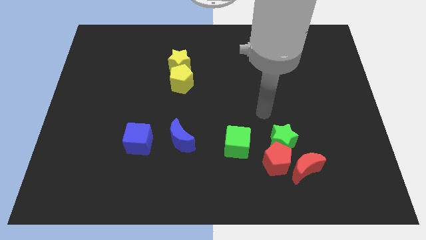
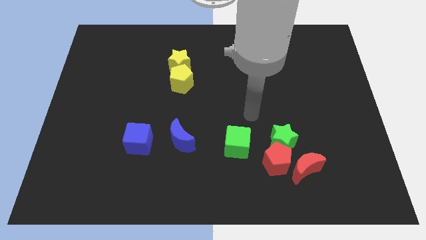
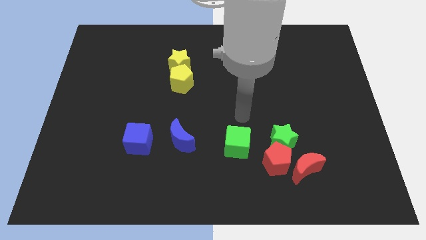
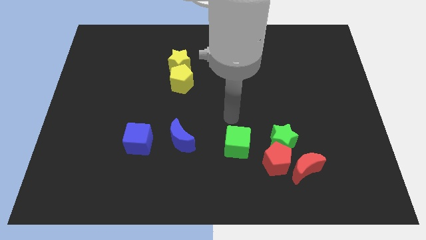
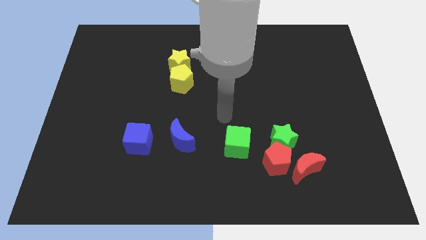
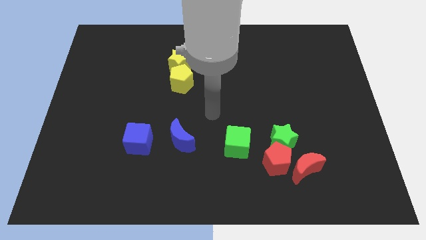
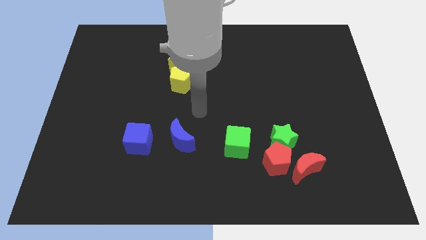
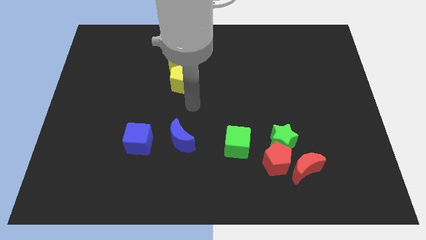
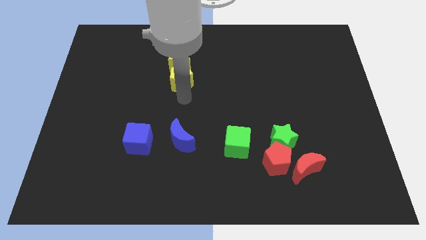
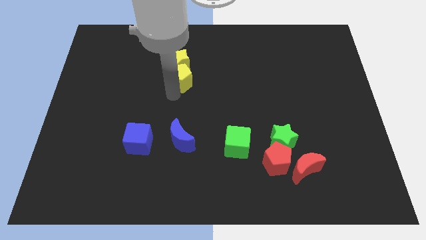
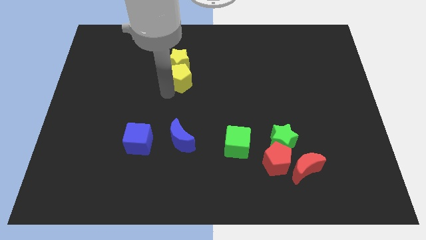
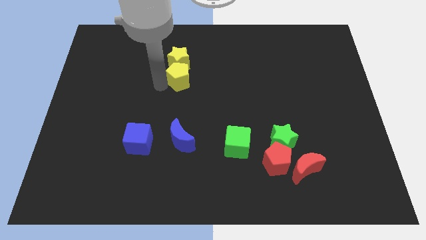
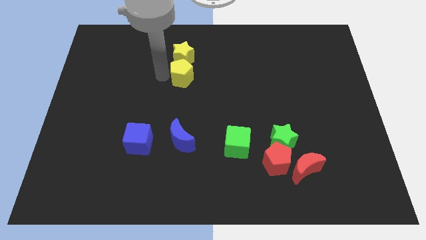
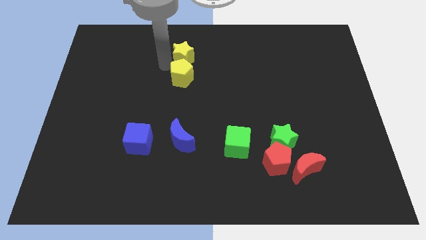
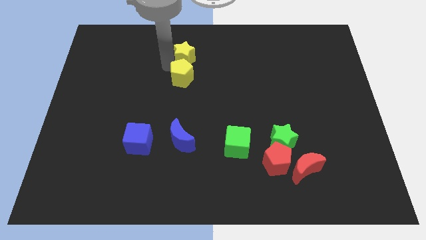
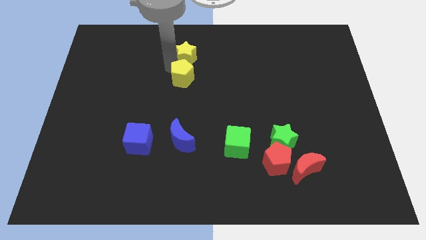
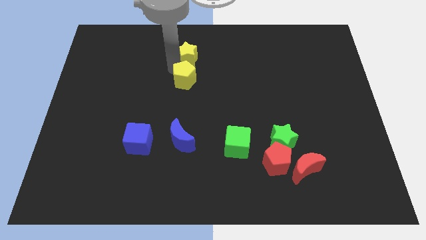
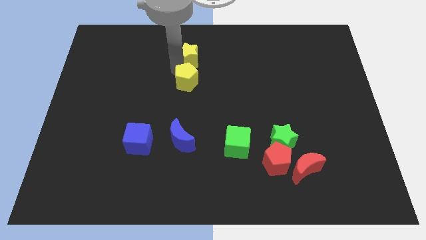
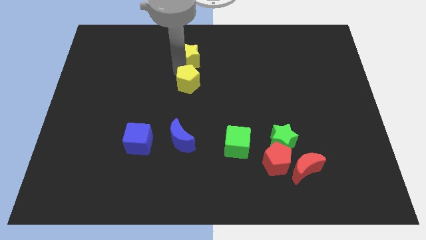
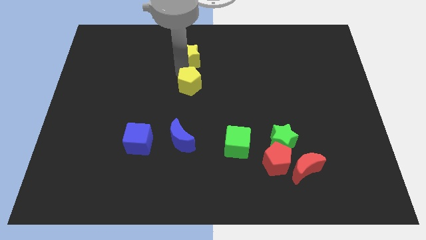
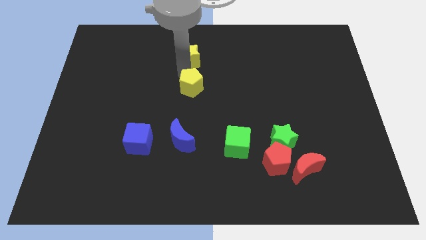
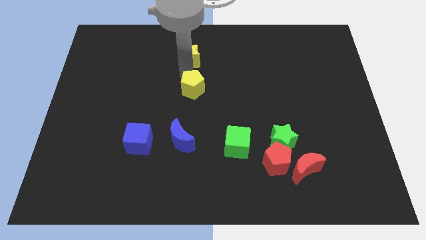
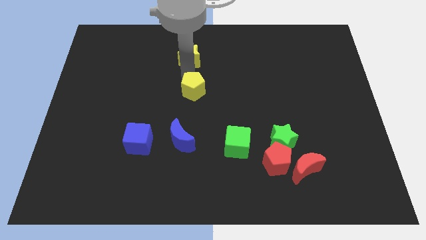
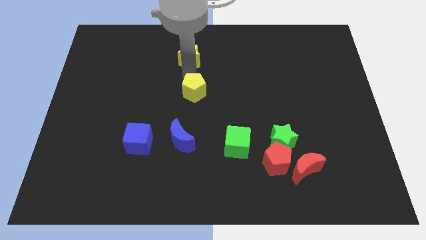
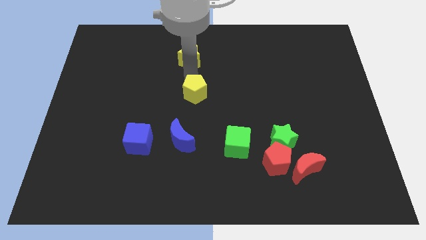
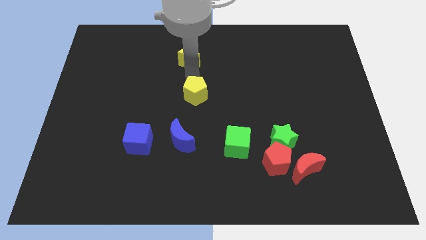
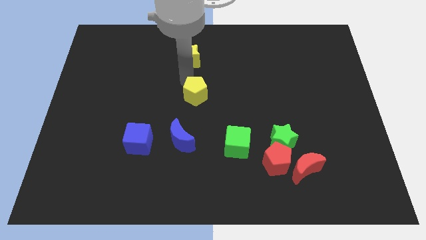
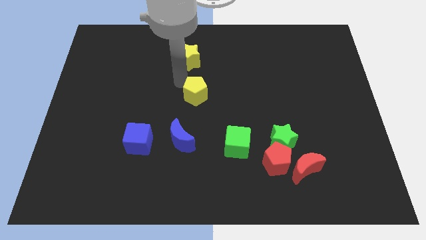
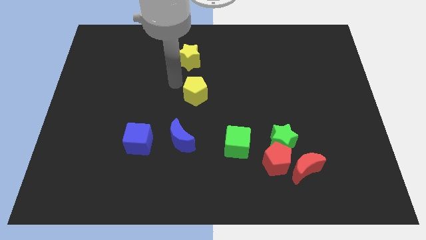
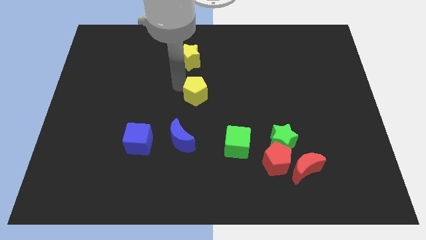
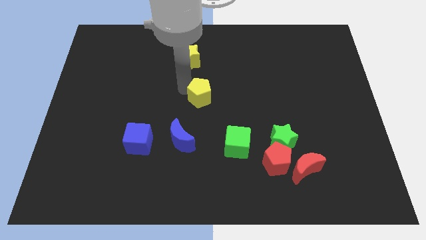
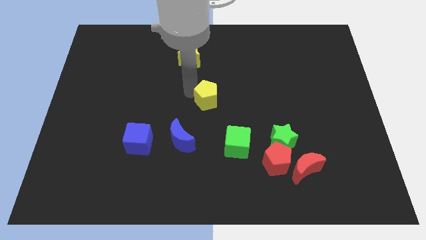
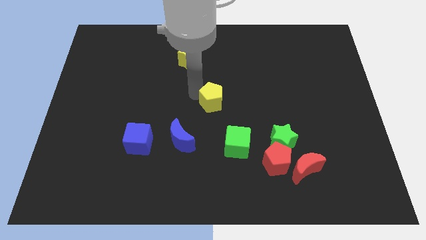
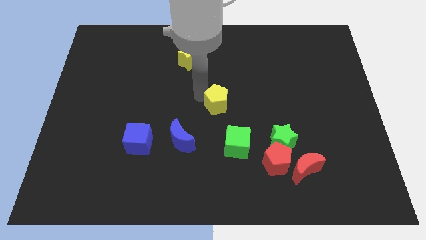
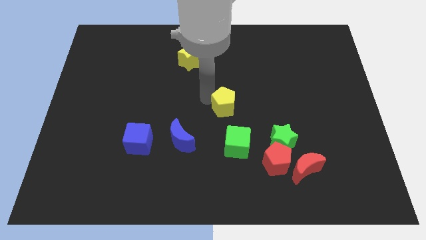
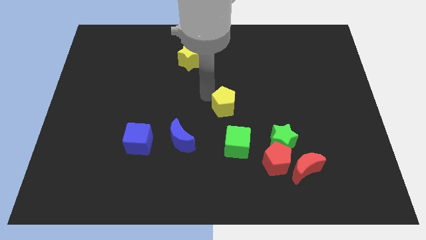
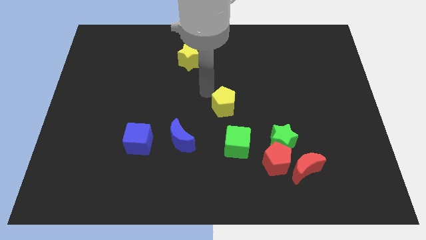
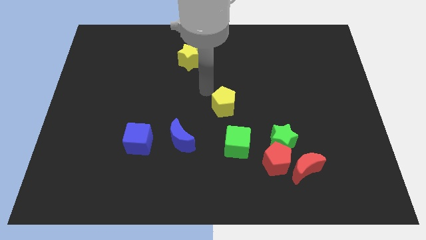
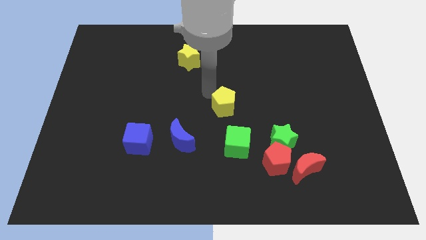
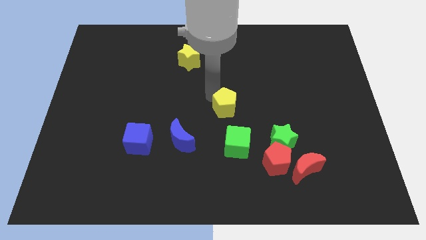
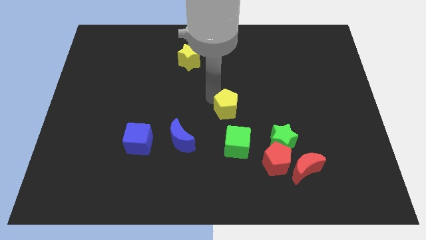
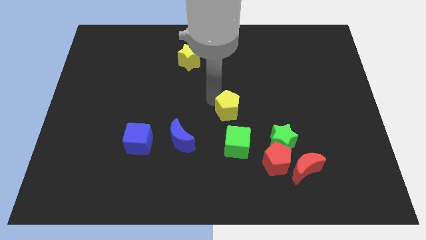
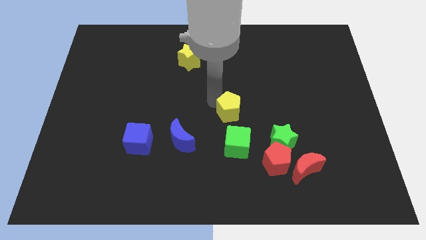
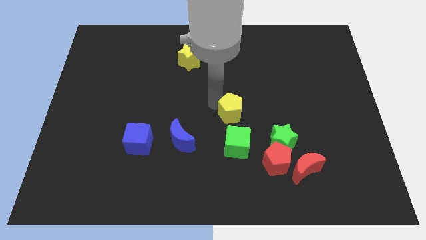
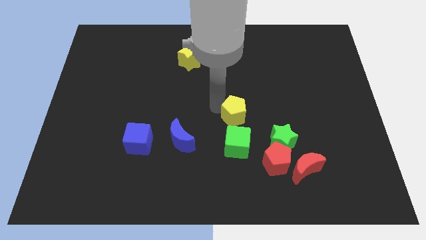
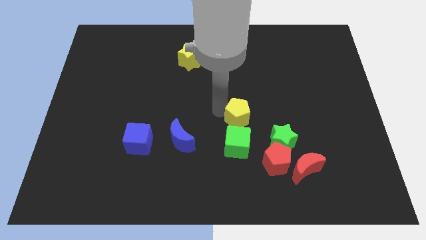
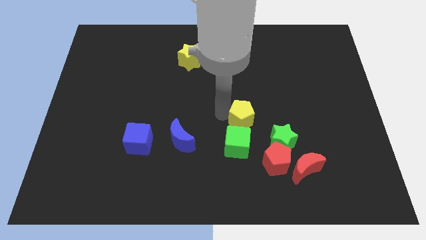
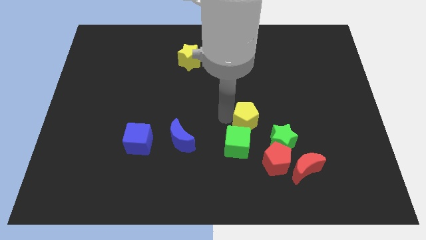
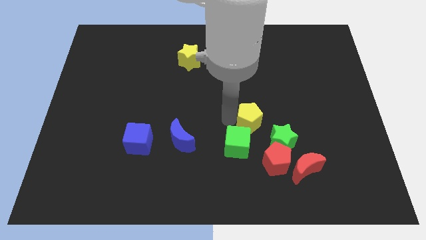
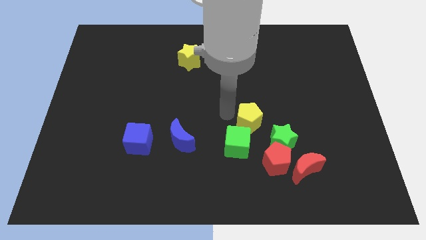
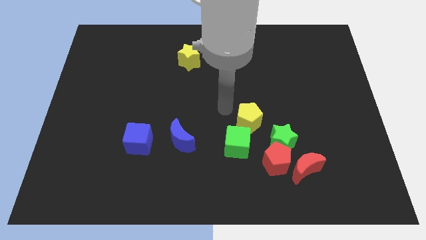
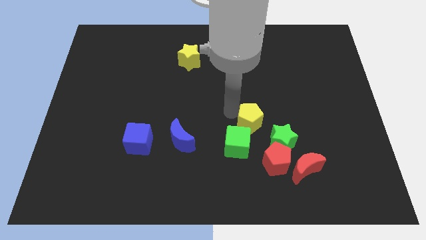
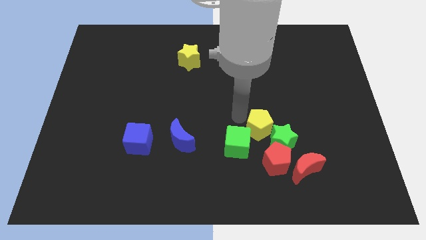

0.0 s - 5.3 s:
push the yellow pentagon towards the green star

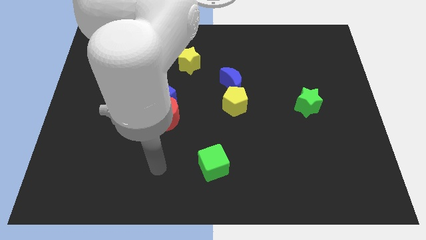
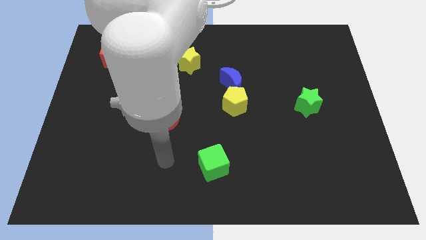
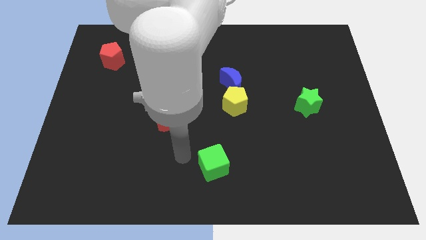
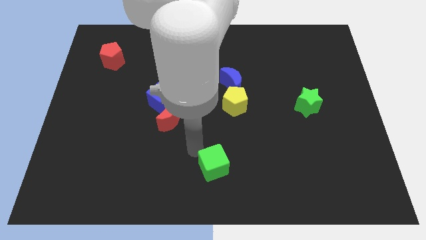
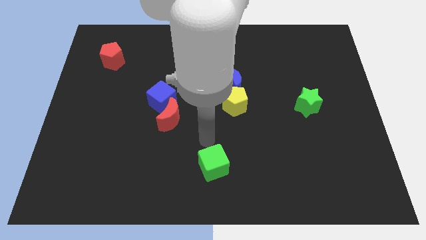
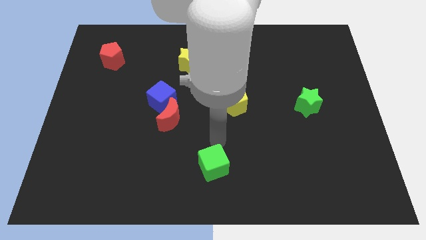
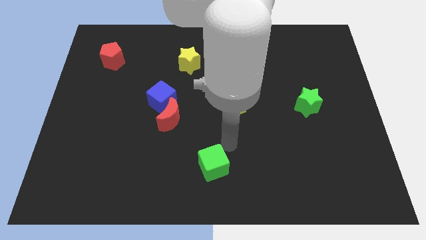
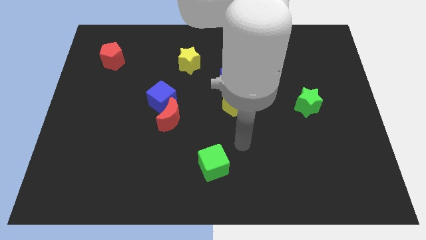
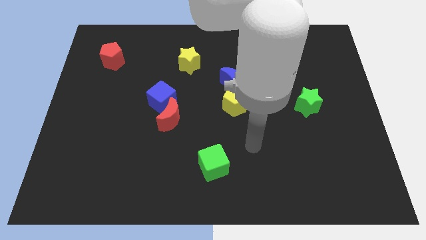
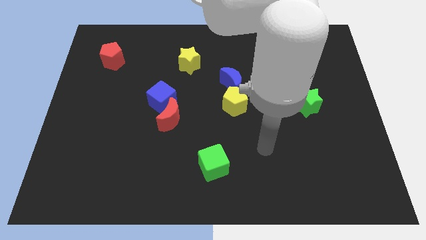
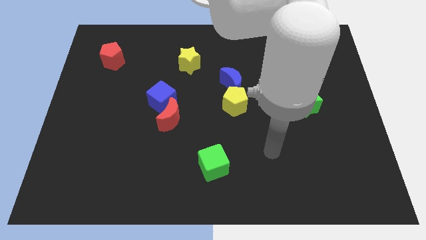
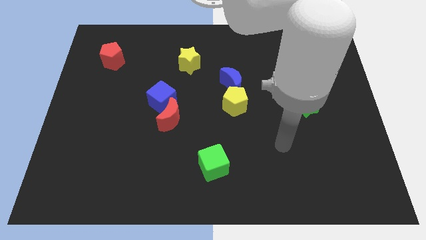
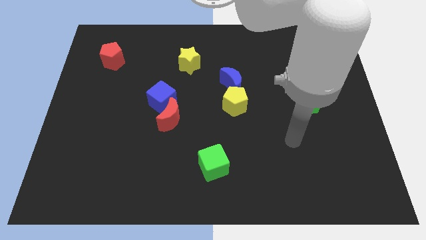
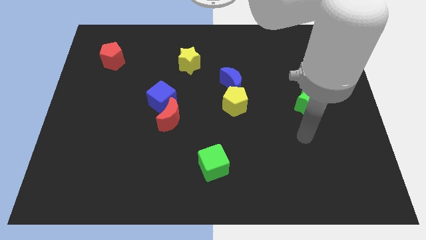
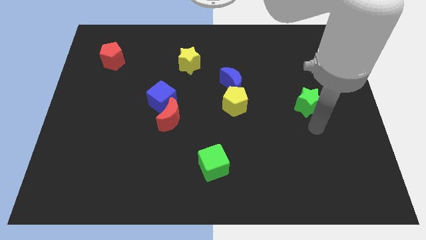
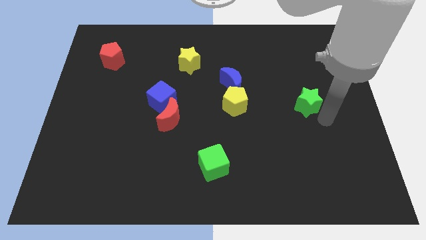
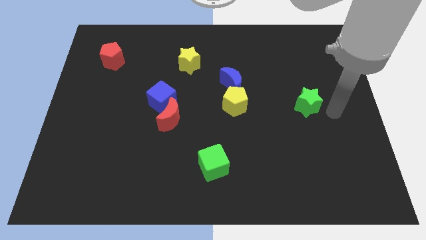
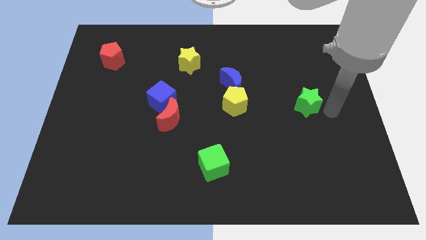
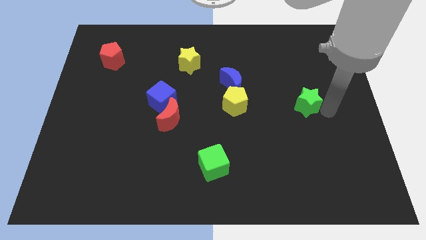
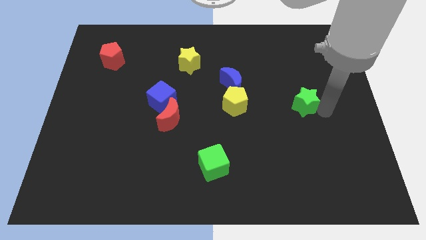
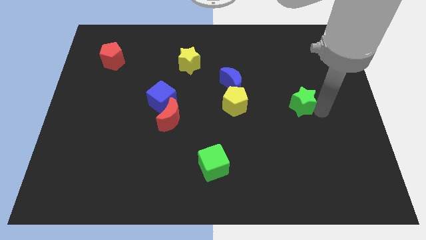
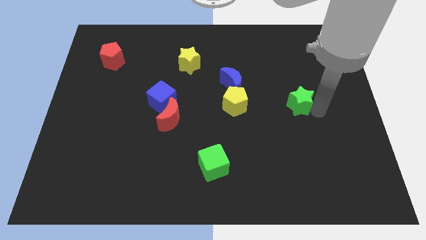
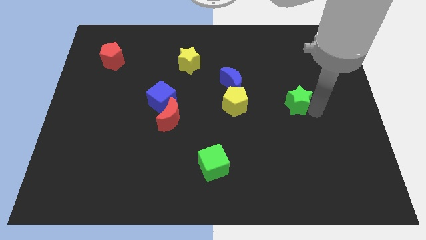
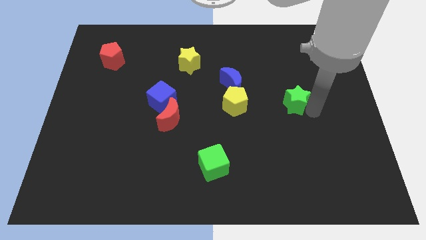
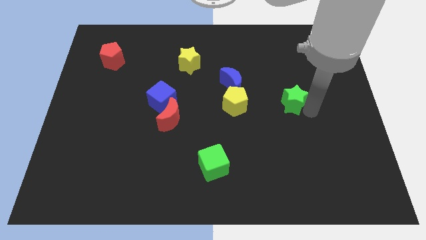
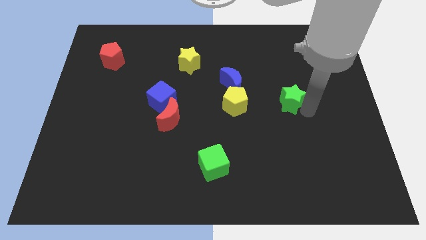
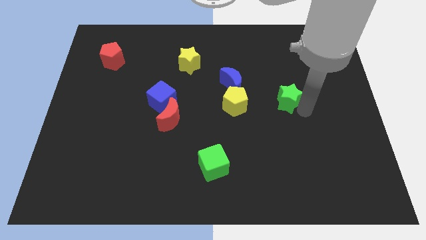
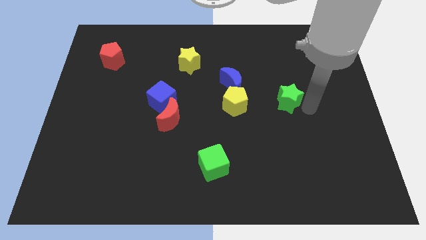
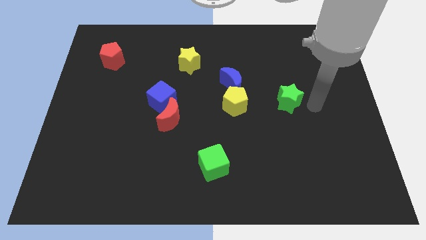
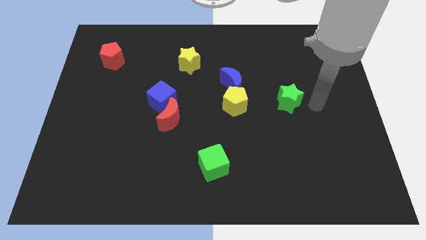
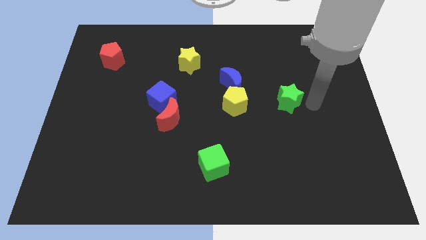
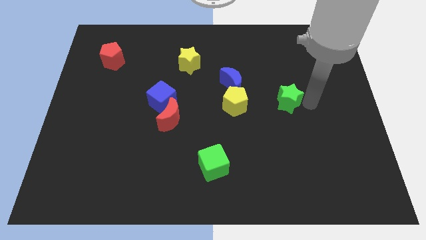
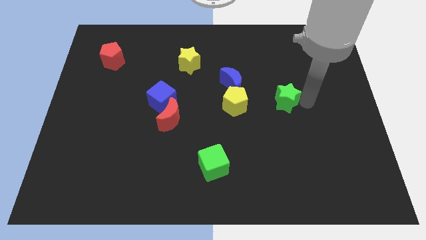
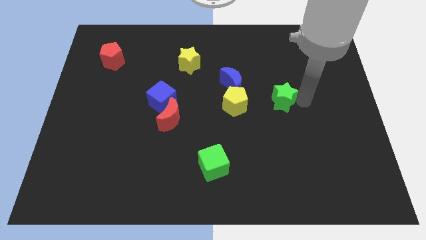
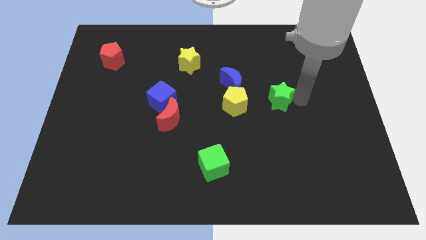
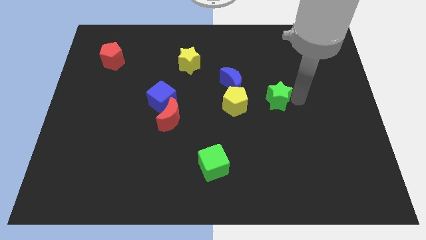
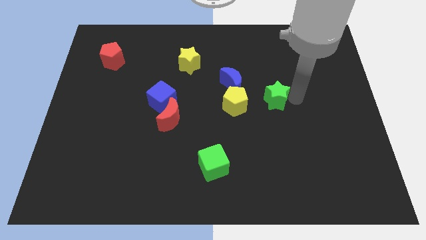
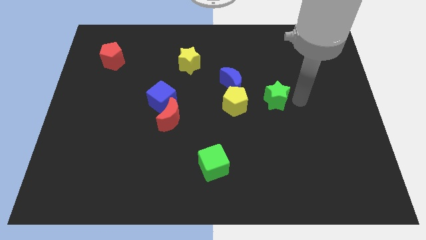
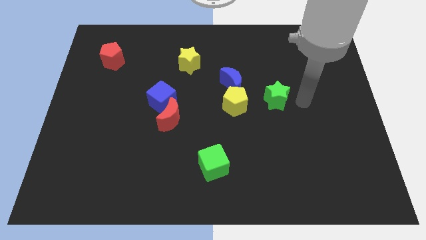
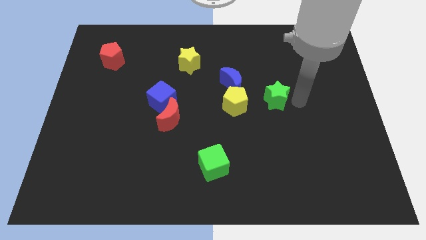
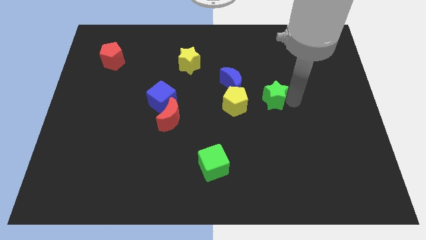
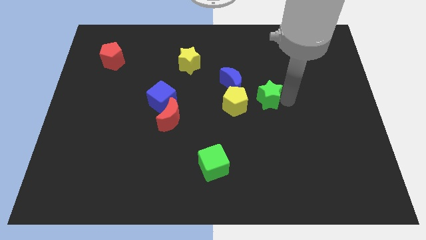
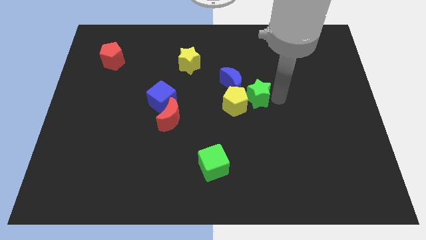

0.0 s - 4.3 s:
put the green star close to the yellow pentagon
